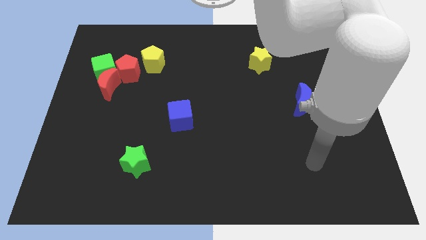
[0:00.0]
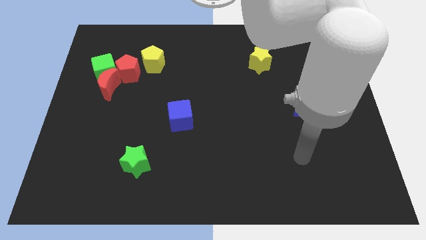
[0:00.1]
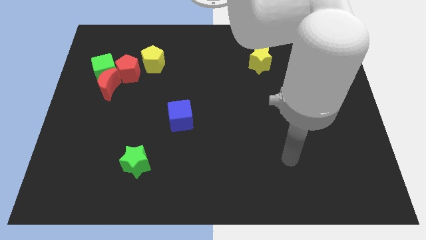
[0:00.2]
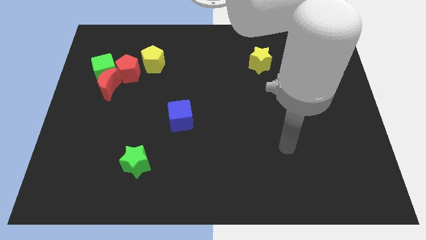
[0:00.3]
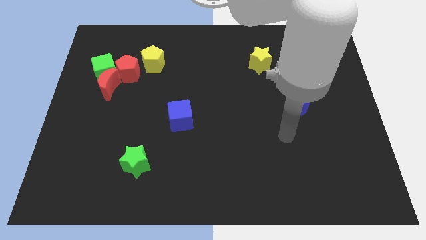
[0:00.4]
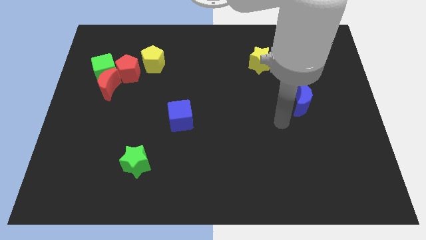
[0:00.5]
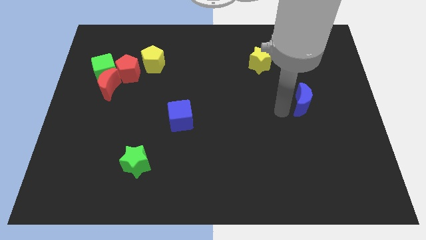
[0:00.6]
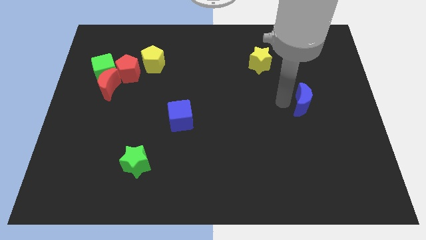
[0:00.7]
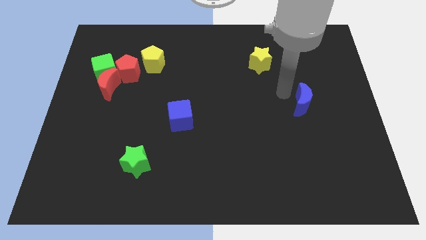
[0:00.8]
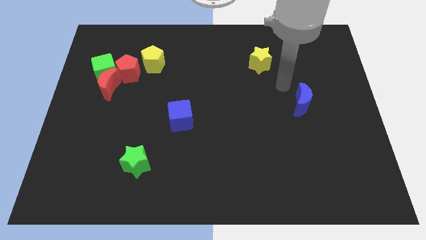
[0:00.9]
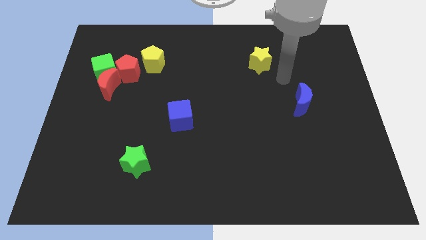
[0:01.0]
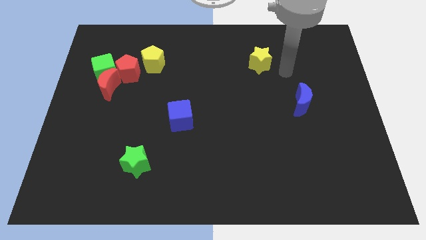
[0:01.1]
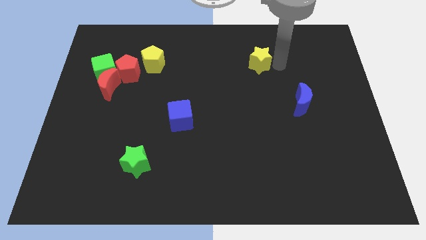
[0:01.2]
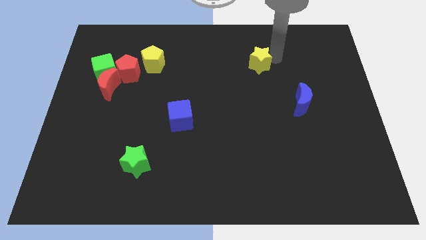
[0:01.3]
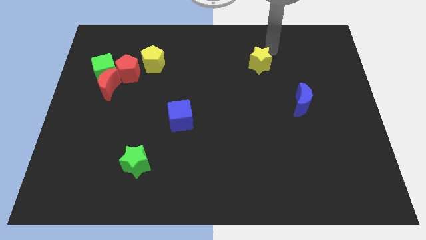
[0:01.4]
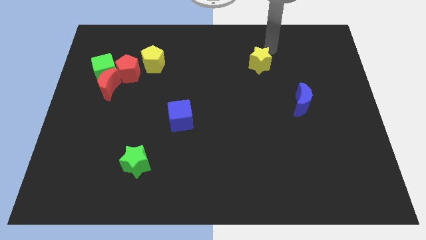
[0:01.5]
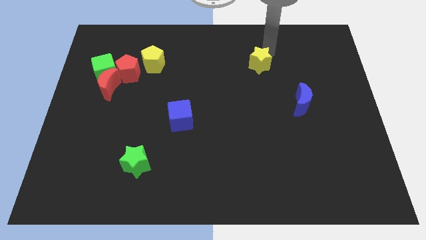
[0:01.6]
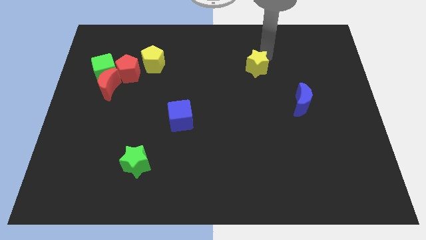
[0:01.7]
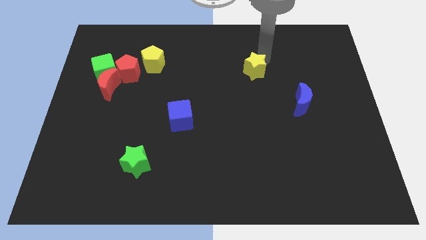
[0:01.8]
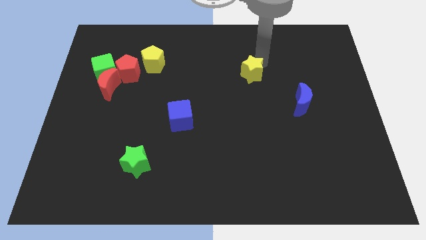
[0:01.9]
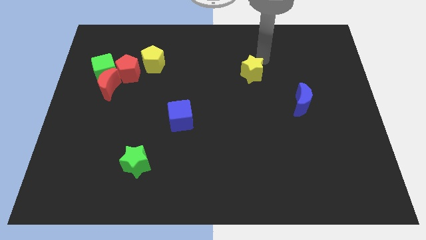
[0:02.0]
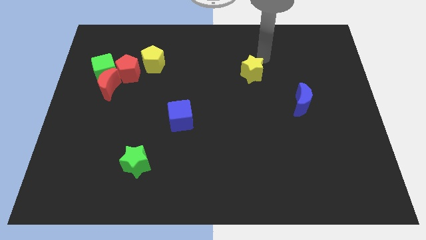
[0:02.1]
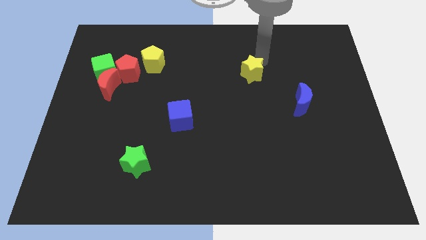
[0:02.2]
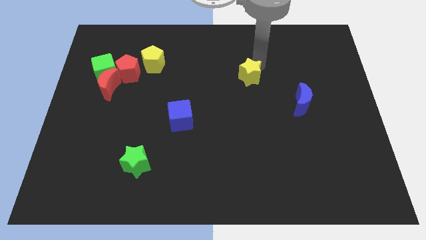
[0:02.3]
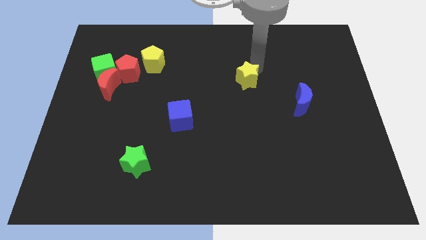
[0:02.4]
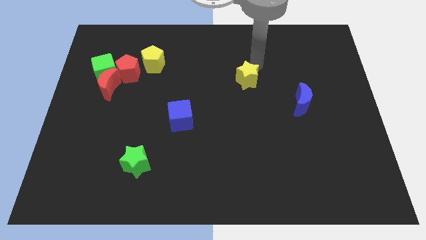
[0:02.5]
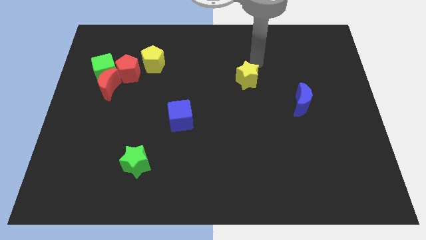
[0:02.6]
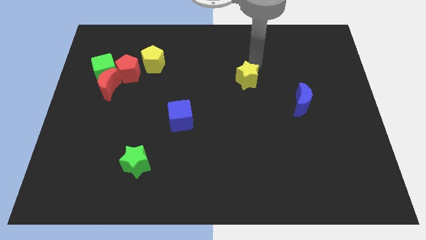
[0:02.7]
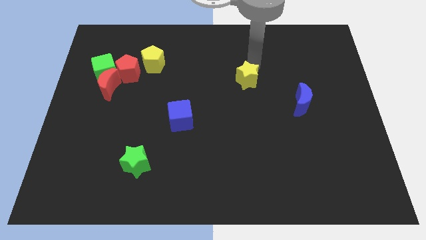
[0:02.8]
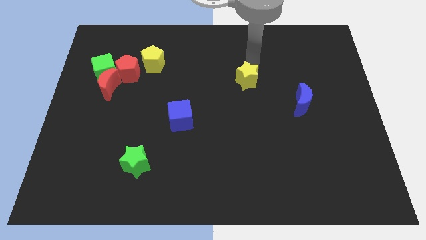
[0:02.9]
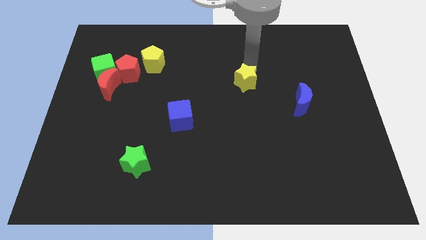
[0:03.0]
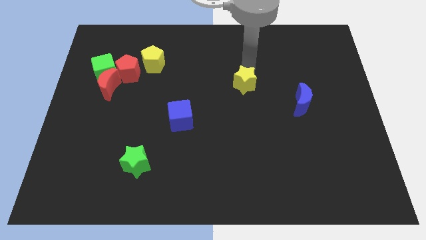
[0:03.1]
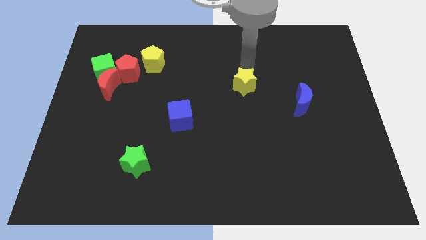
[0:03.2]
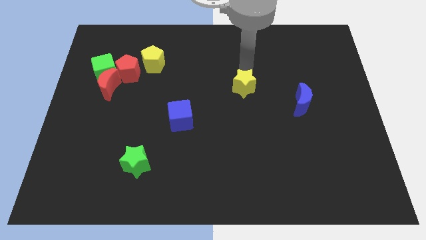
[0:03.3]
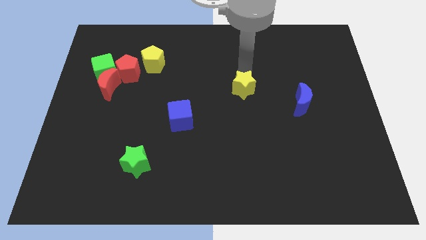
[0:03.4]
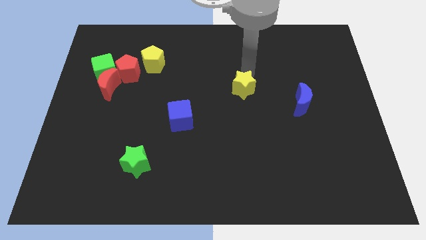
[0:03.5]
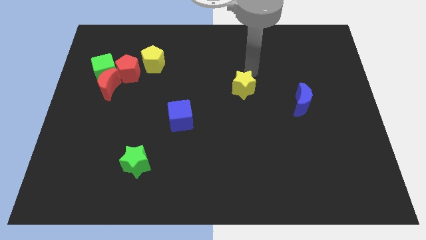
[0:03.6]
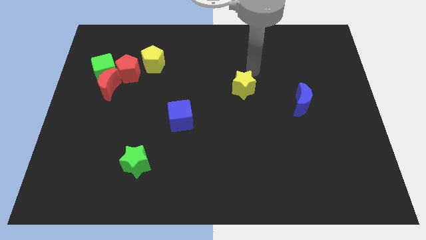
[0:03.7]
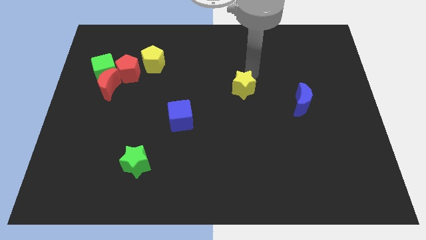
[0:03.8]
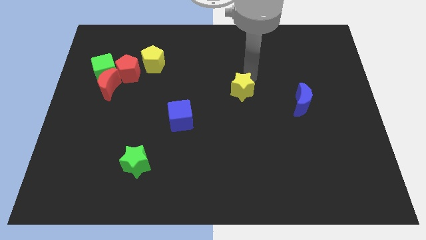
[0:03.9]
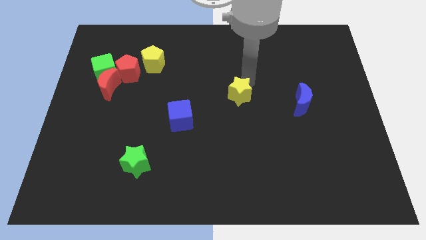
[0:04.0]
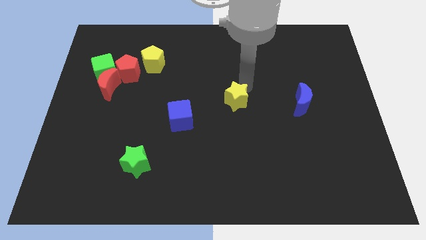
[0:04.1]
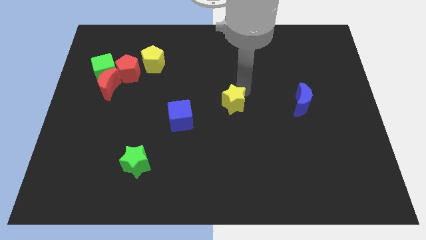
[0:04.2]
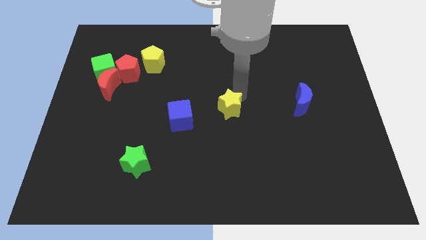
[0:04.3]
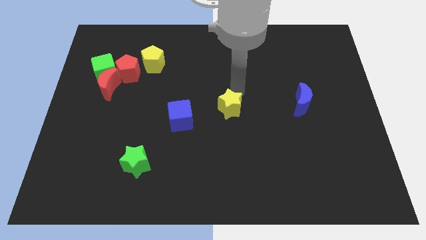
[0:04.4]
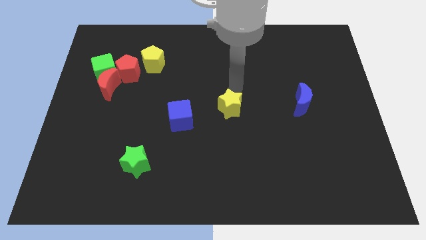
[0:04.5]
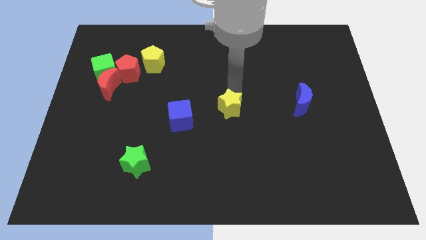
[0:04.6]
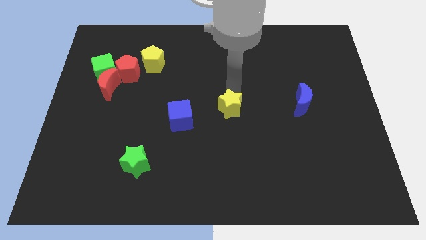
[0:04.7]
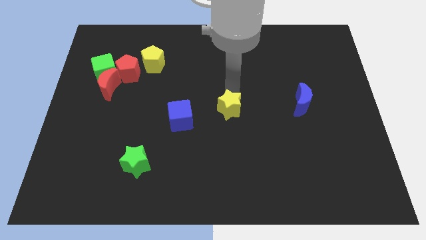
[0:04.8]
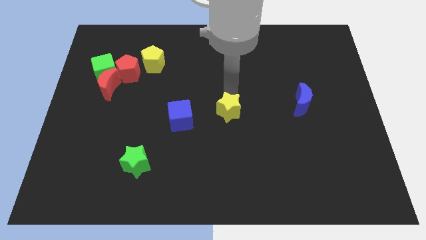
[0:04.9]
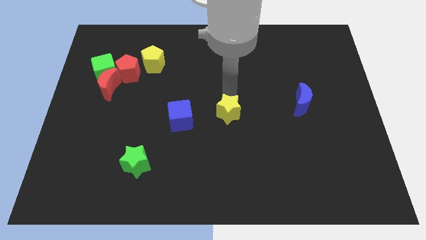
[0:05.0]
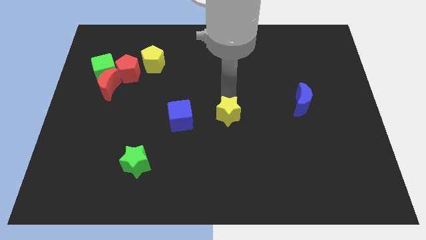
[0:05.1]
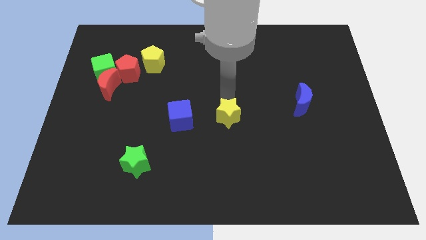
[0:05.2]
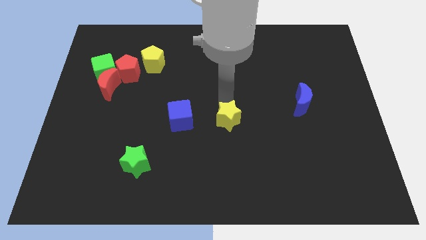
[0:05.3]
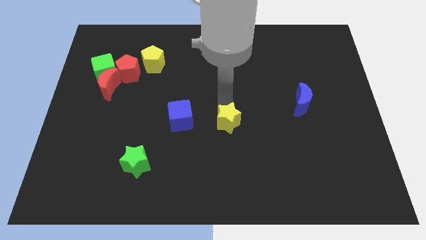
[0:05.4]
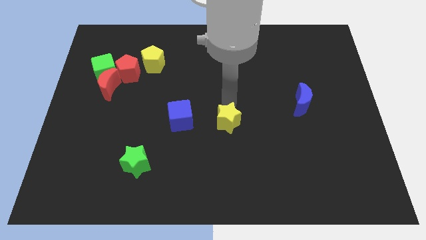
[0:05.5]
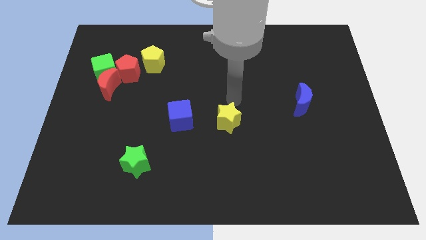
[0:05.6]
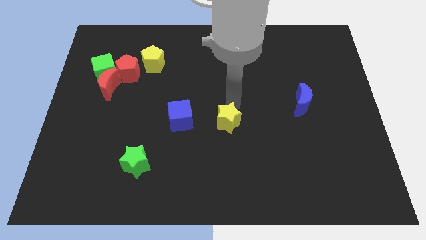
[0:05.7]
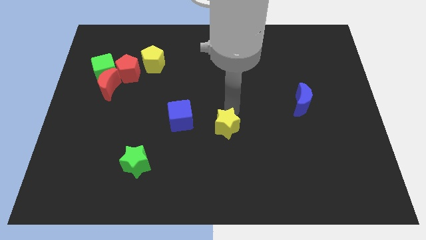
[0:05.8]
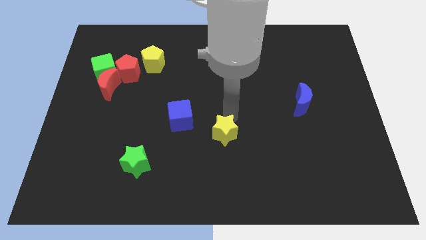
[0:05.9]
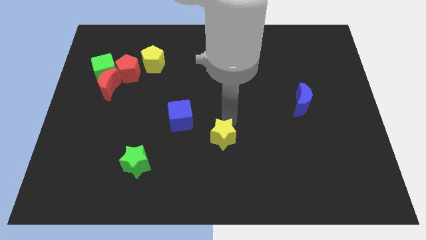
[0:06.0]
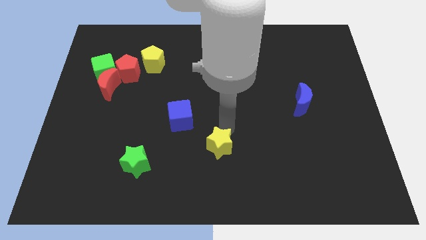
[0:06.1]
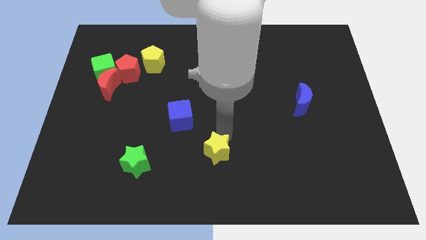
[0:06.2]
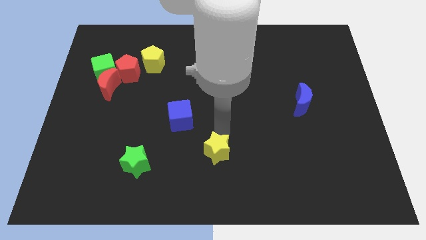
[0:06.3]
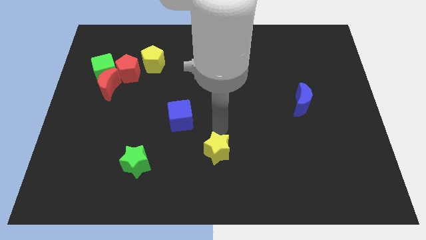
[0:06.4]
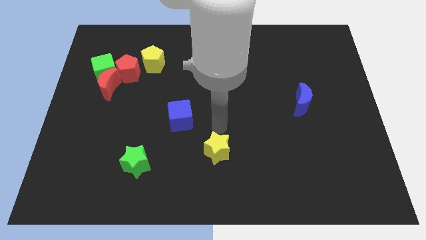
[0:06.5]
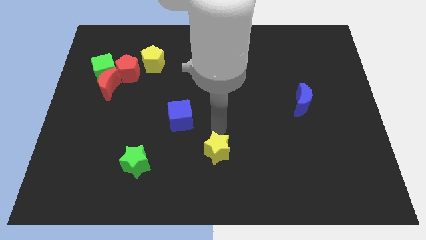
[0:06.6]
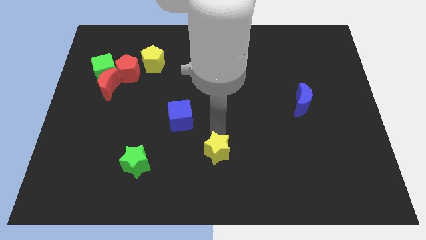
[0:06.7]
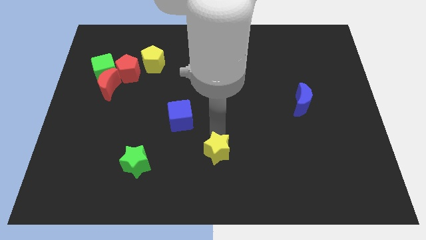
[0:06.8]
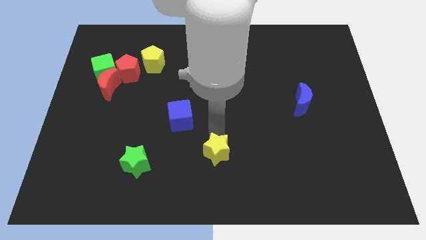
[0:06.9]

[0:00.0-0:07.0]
slide the yellow star to the bottom
